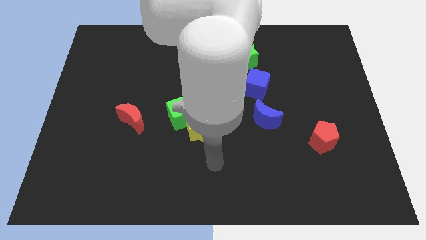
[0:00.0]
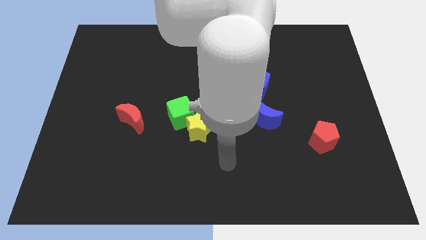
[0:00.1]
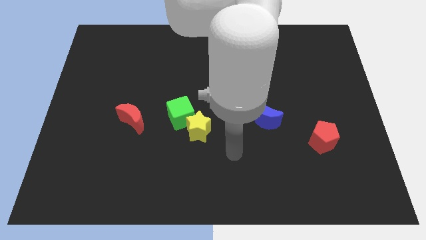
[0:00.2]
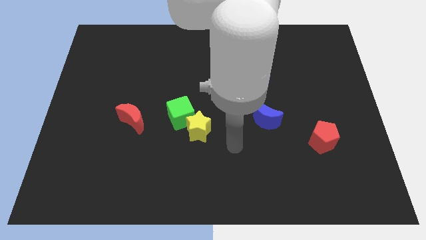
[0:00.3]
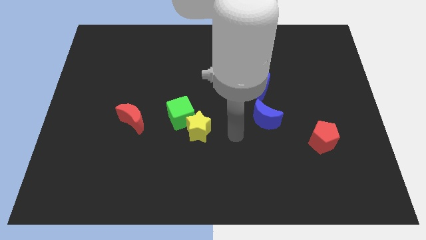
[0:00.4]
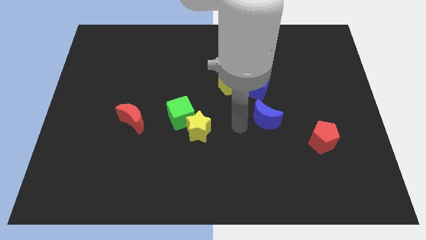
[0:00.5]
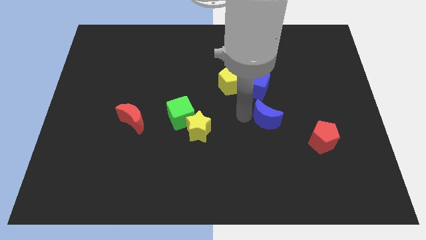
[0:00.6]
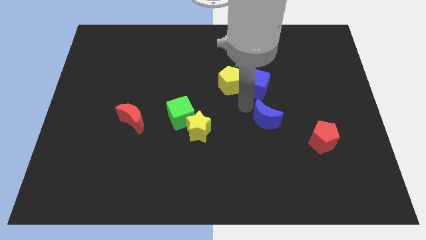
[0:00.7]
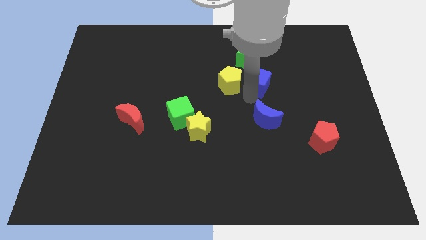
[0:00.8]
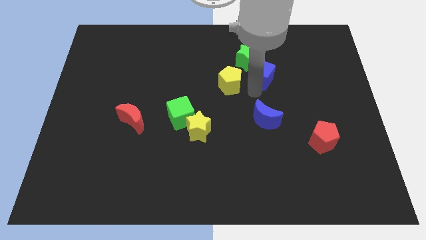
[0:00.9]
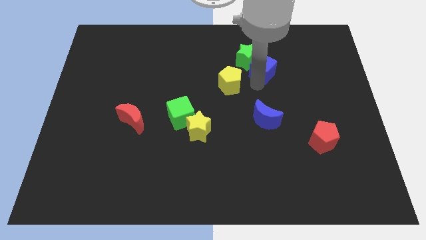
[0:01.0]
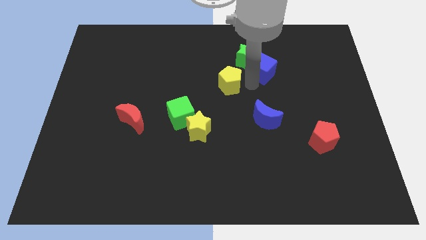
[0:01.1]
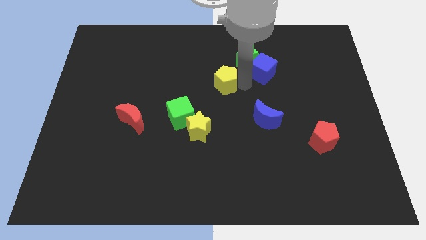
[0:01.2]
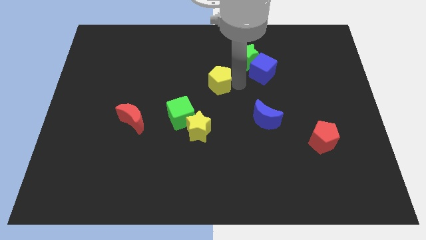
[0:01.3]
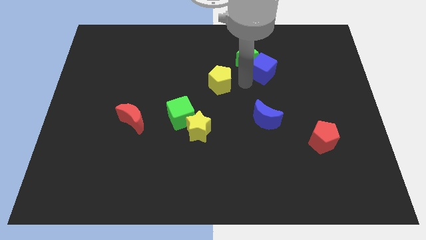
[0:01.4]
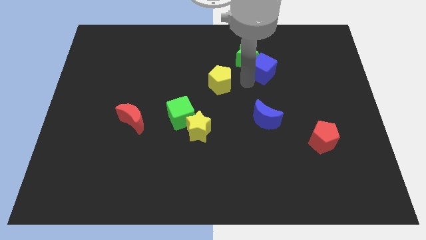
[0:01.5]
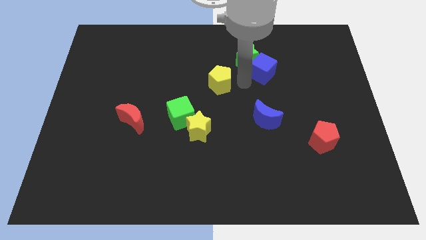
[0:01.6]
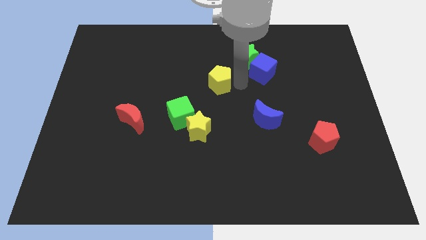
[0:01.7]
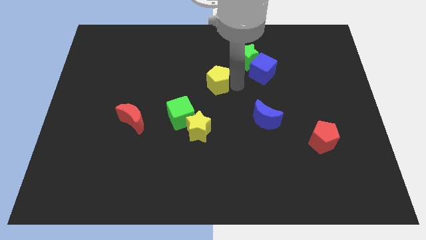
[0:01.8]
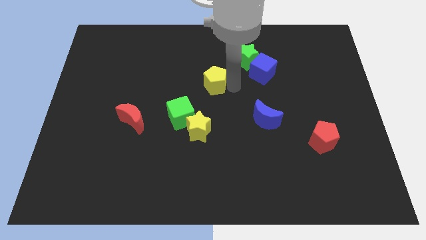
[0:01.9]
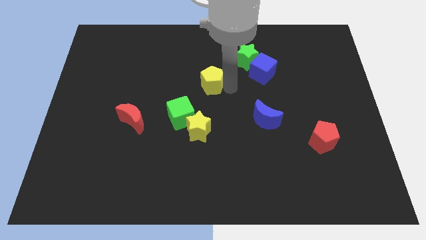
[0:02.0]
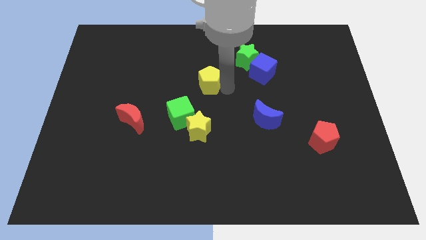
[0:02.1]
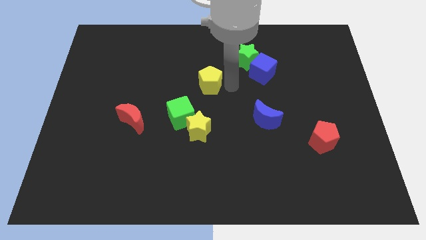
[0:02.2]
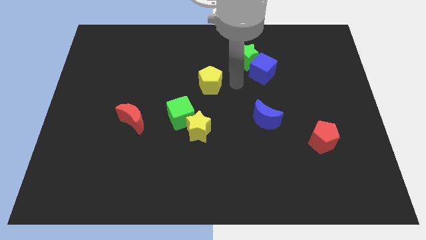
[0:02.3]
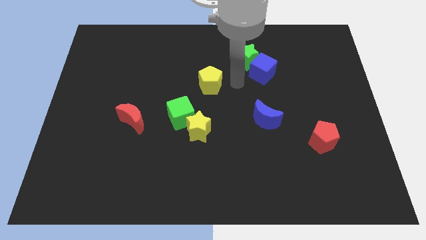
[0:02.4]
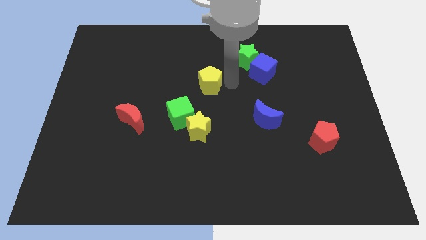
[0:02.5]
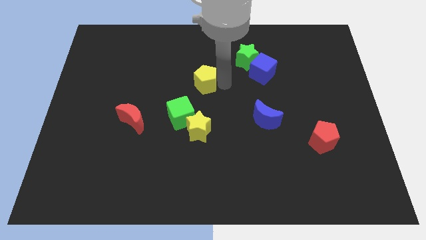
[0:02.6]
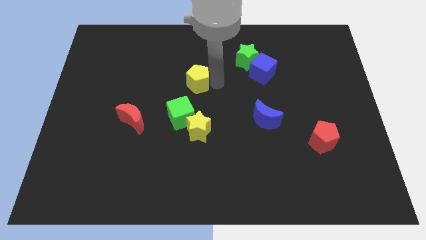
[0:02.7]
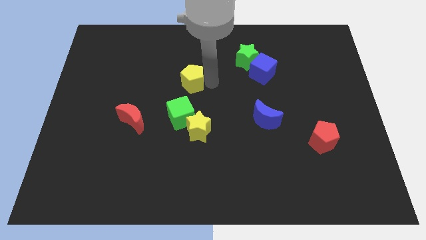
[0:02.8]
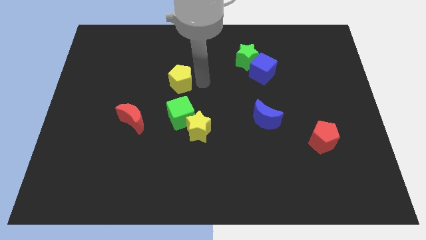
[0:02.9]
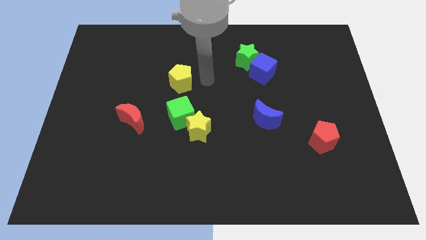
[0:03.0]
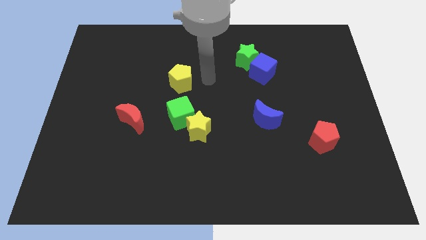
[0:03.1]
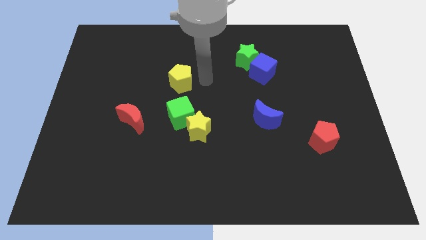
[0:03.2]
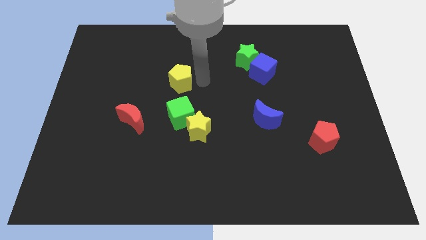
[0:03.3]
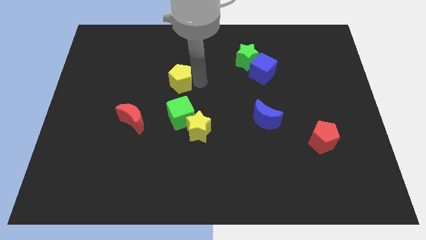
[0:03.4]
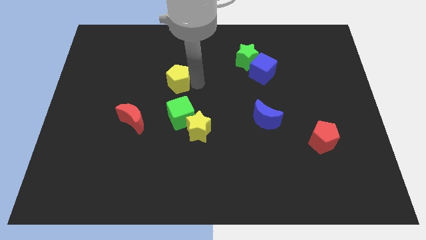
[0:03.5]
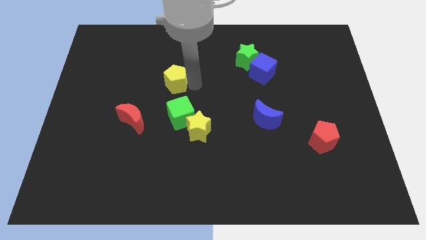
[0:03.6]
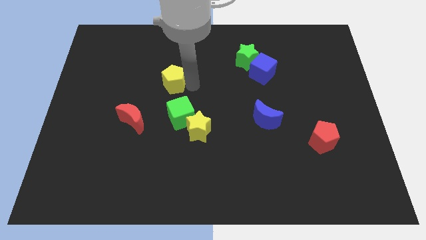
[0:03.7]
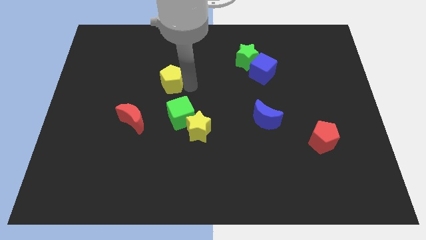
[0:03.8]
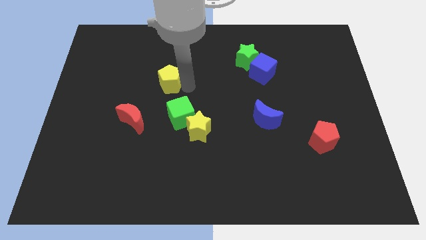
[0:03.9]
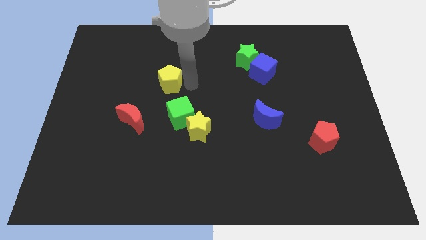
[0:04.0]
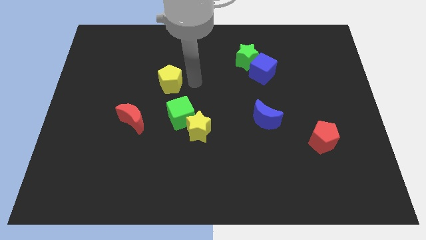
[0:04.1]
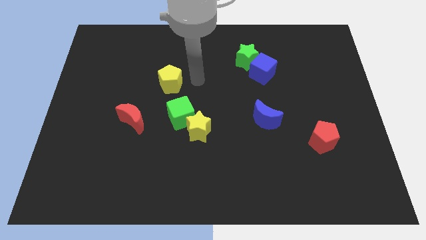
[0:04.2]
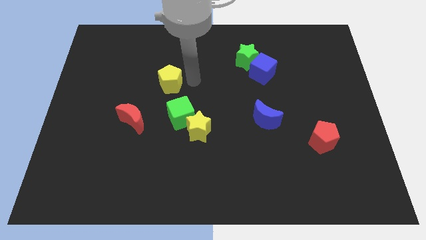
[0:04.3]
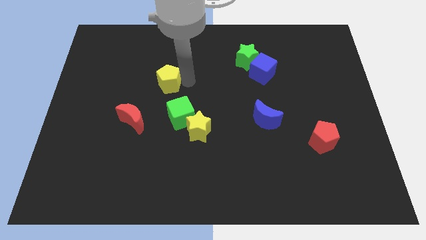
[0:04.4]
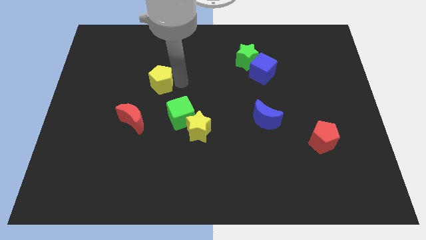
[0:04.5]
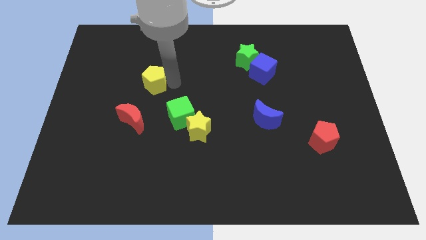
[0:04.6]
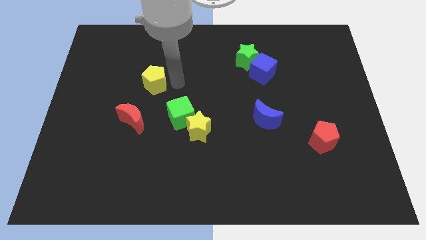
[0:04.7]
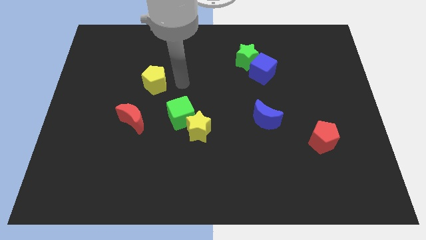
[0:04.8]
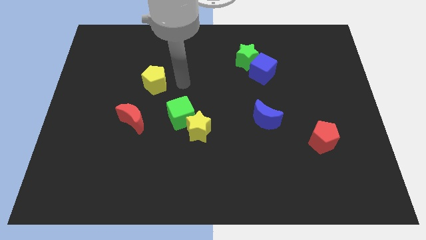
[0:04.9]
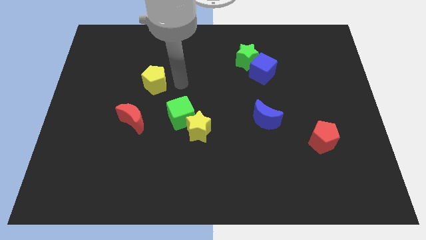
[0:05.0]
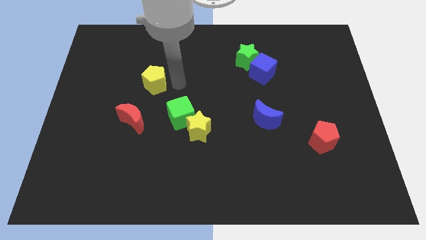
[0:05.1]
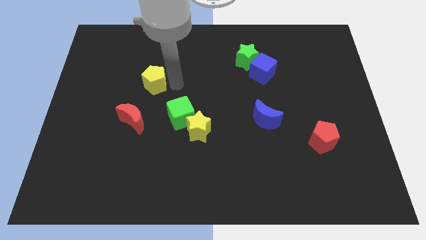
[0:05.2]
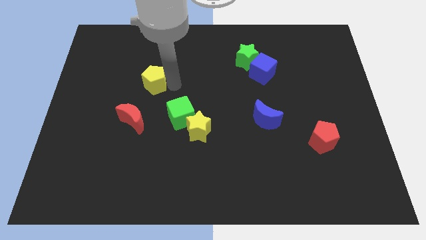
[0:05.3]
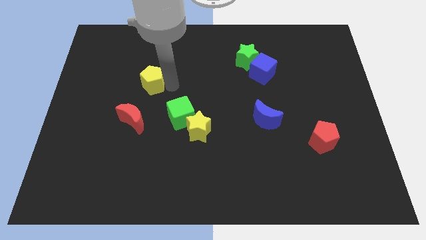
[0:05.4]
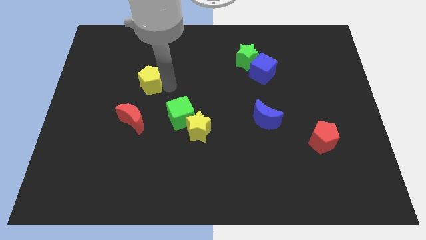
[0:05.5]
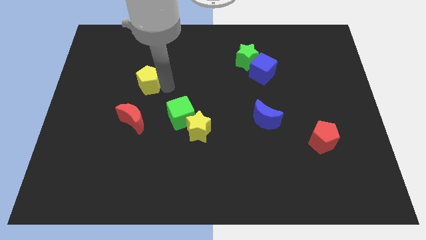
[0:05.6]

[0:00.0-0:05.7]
push the yellow pentagon to the left

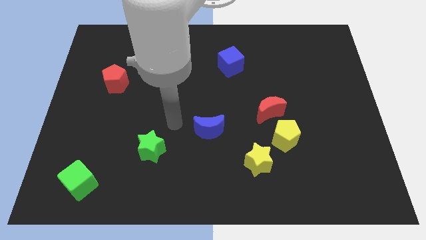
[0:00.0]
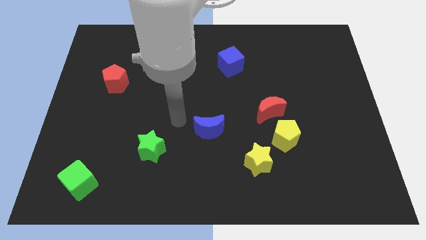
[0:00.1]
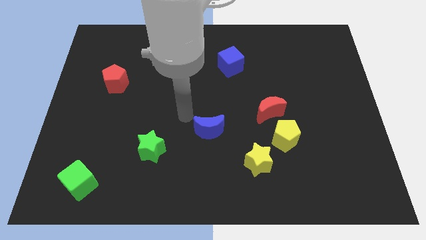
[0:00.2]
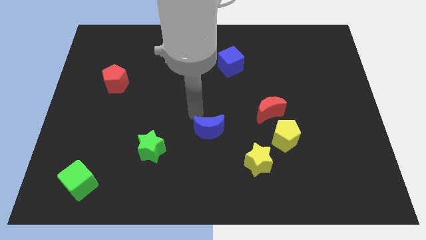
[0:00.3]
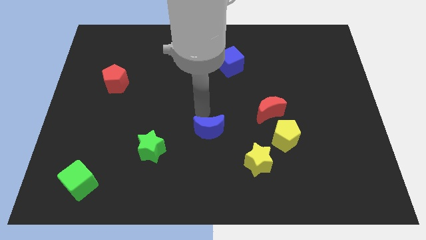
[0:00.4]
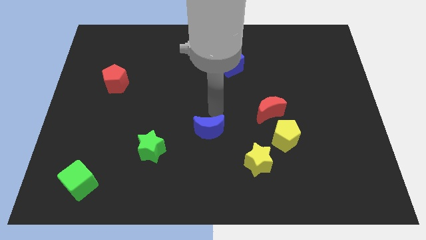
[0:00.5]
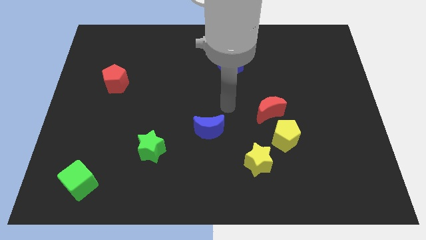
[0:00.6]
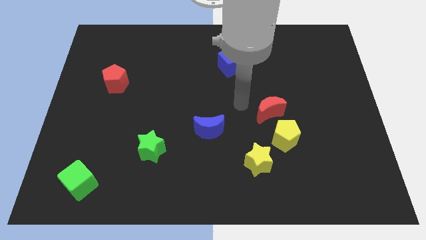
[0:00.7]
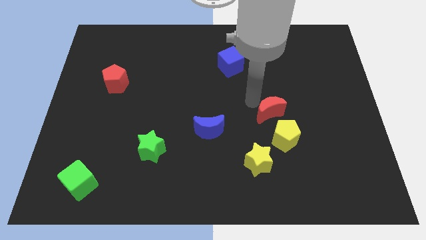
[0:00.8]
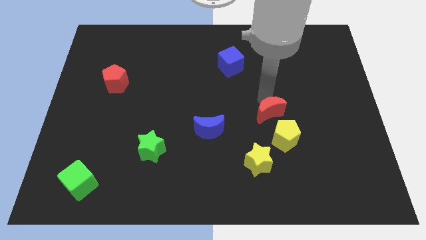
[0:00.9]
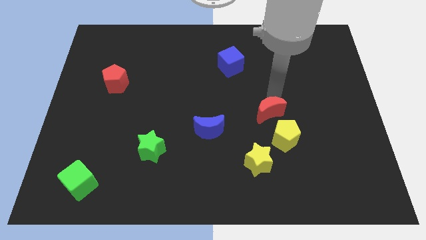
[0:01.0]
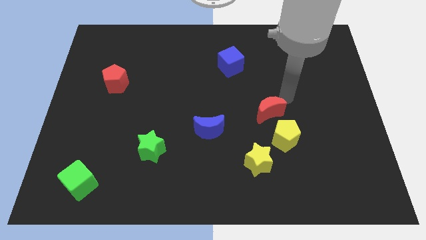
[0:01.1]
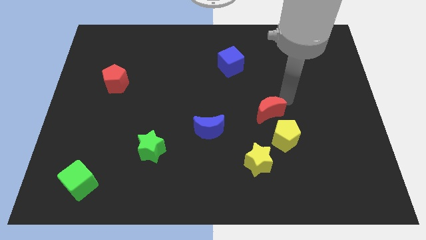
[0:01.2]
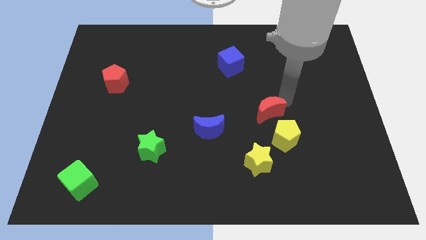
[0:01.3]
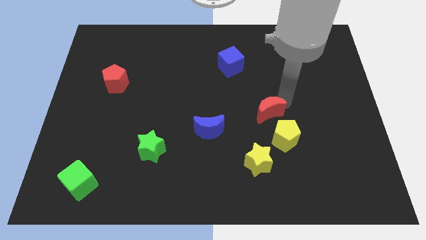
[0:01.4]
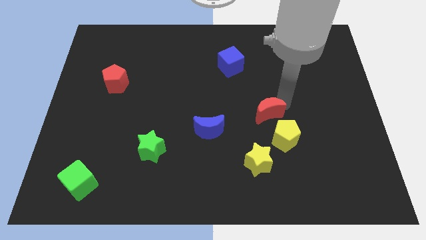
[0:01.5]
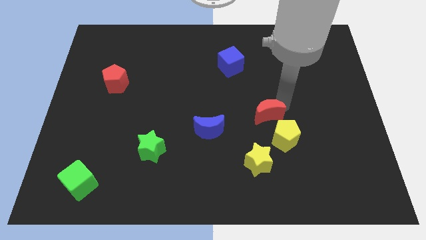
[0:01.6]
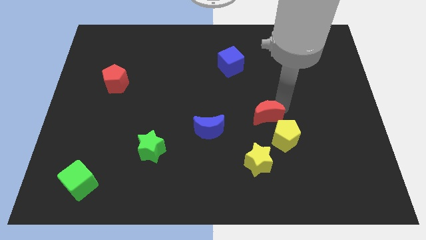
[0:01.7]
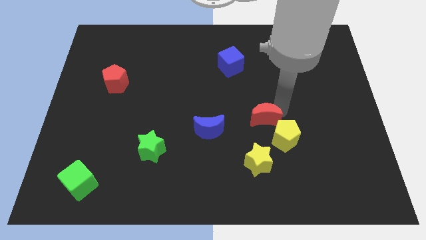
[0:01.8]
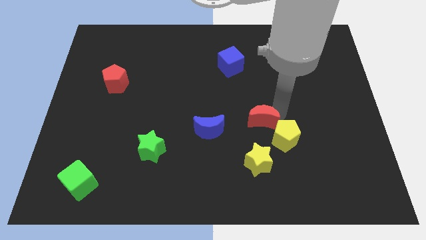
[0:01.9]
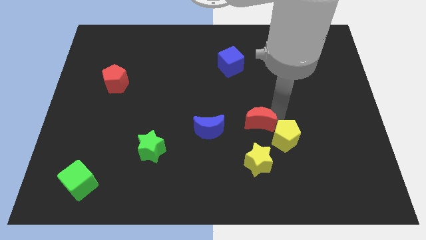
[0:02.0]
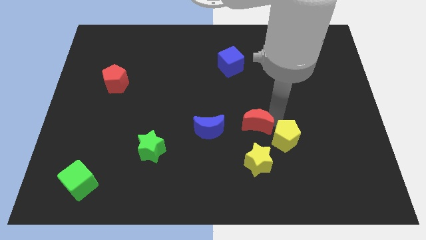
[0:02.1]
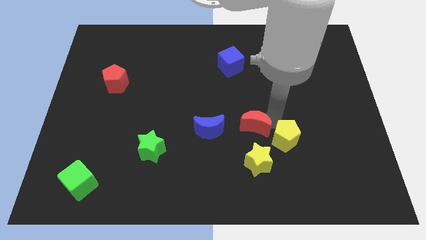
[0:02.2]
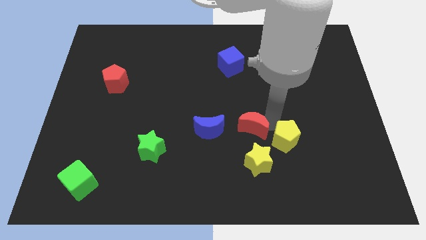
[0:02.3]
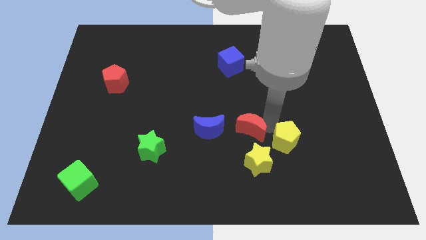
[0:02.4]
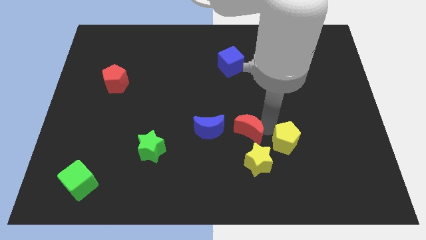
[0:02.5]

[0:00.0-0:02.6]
slightly move the red moon diagonally down and left
